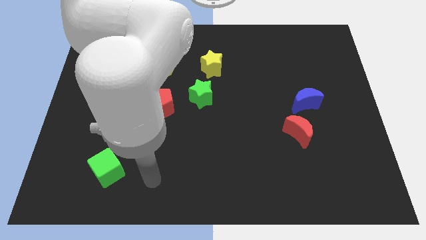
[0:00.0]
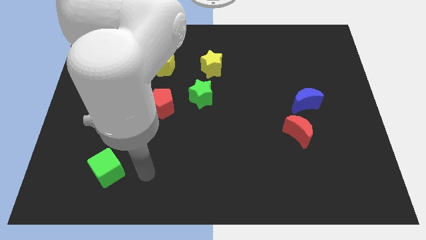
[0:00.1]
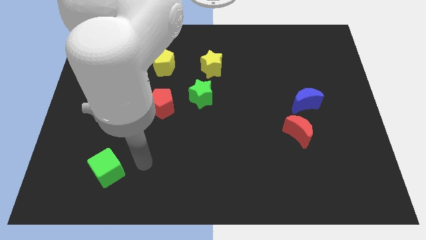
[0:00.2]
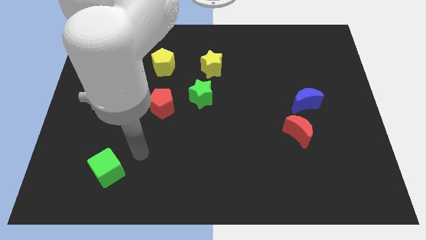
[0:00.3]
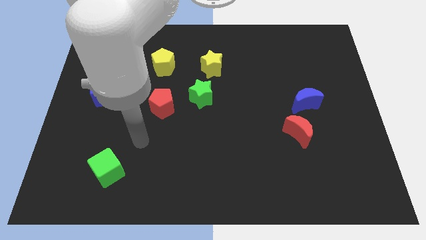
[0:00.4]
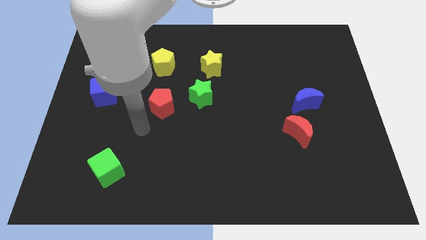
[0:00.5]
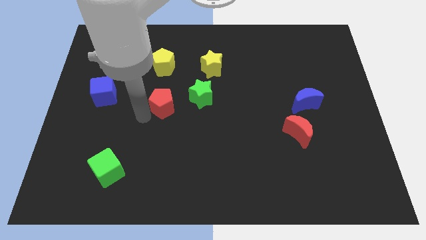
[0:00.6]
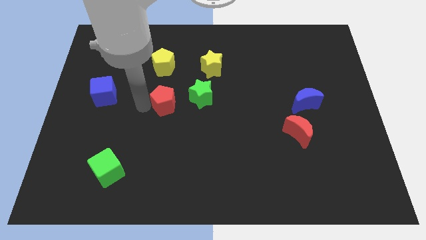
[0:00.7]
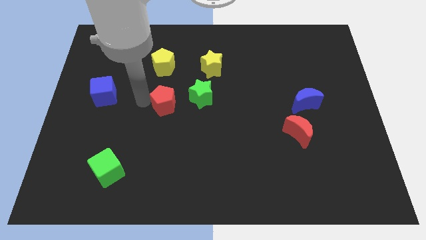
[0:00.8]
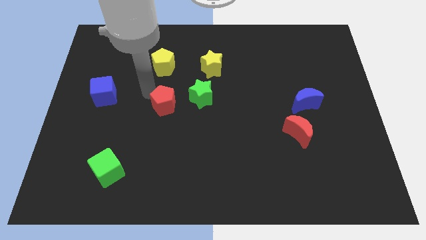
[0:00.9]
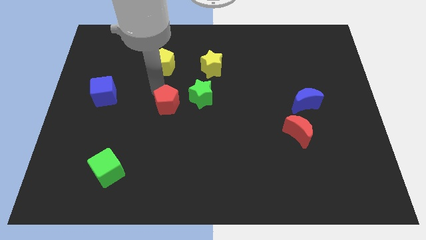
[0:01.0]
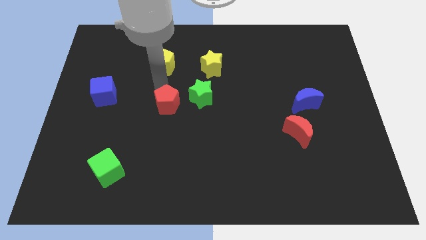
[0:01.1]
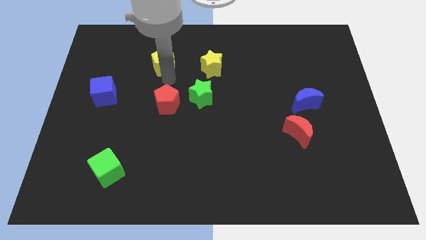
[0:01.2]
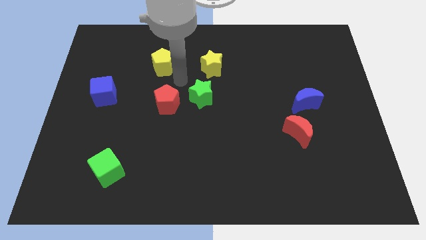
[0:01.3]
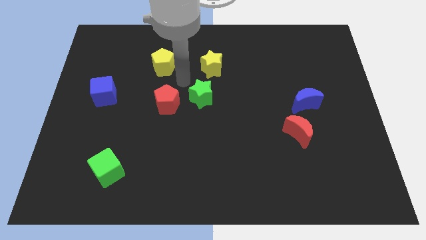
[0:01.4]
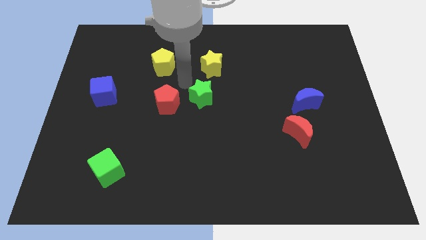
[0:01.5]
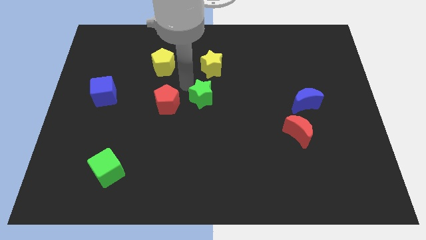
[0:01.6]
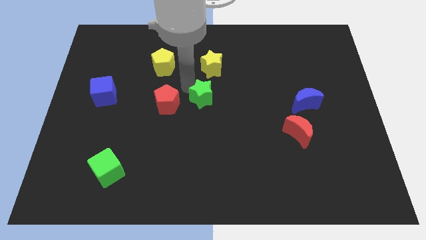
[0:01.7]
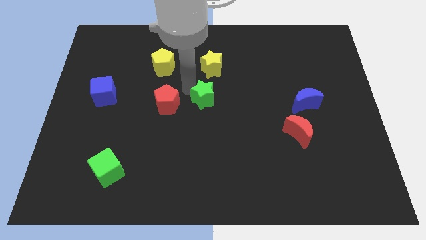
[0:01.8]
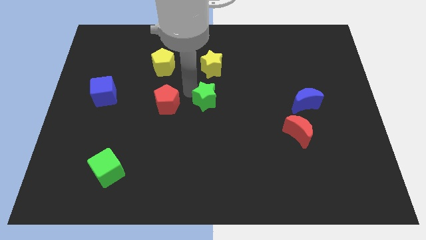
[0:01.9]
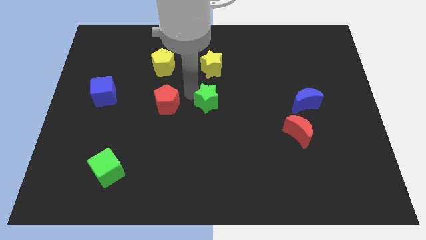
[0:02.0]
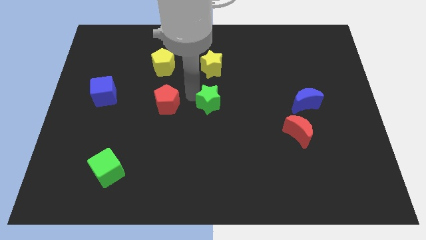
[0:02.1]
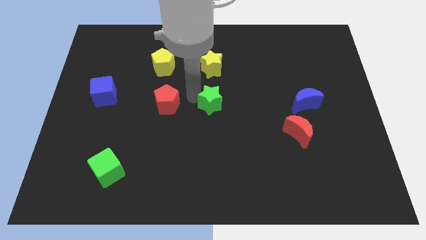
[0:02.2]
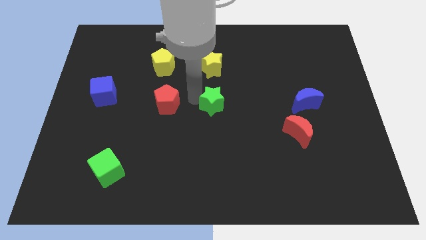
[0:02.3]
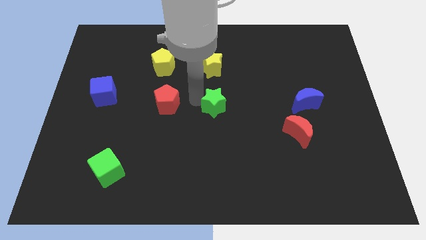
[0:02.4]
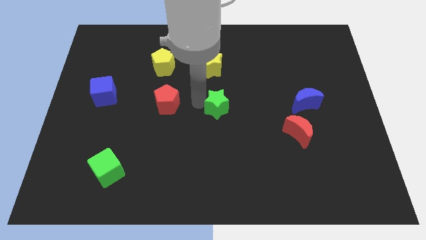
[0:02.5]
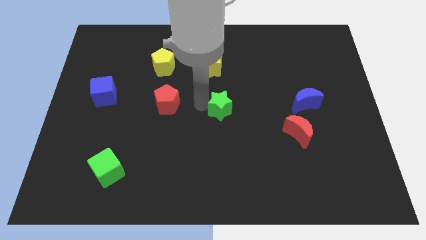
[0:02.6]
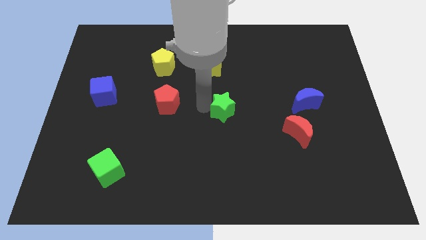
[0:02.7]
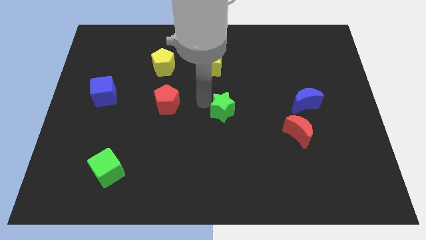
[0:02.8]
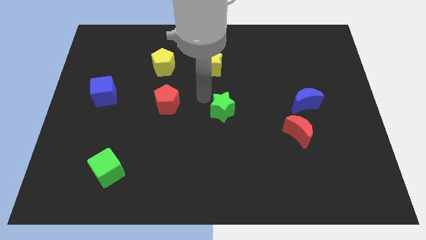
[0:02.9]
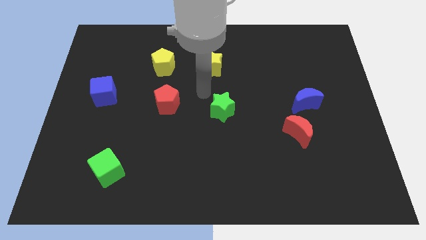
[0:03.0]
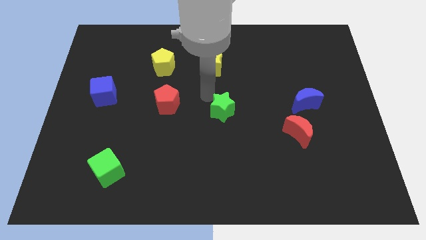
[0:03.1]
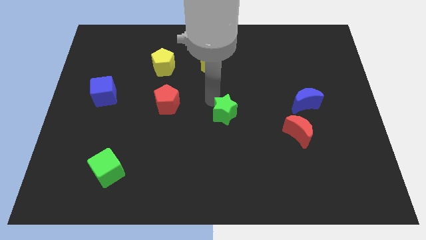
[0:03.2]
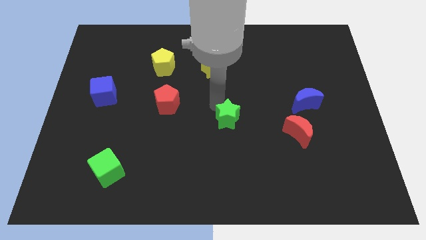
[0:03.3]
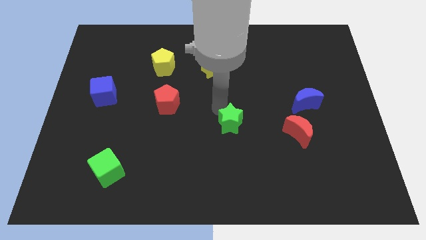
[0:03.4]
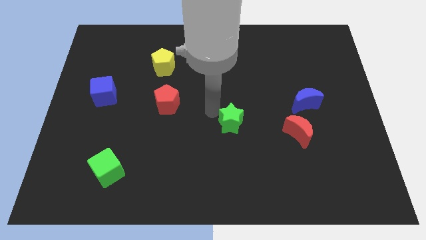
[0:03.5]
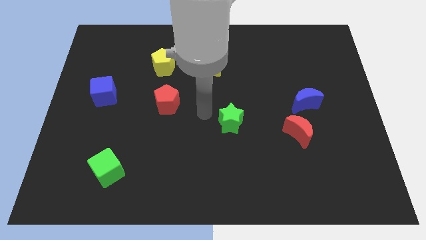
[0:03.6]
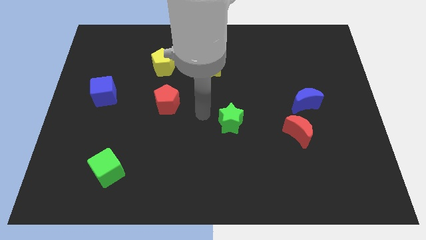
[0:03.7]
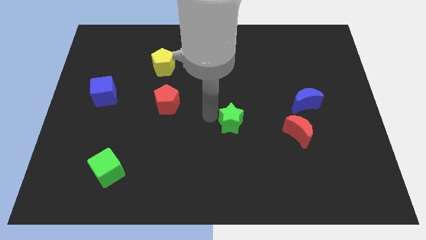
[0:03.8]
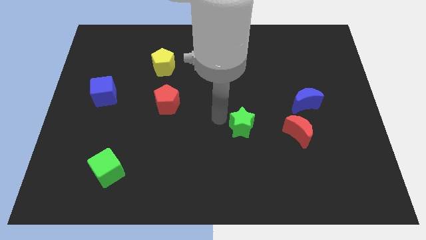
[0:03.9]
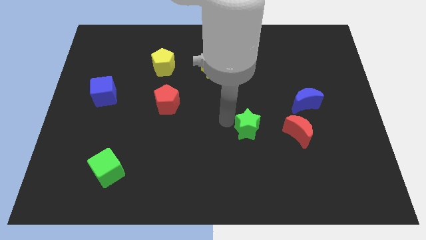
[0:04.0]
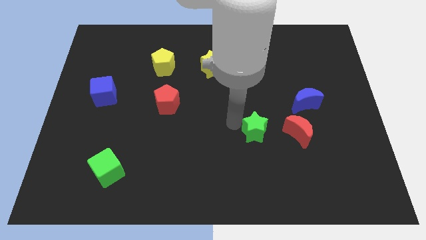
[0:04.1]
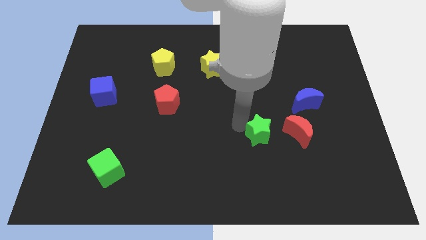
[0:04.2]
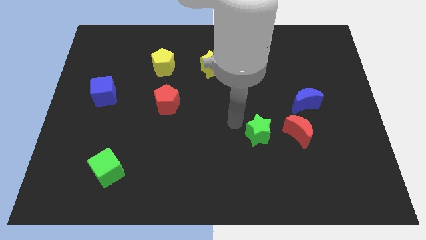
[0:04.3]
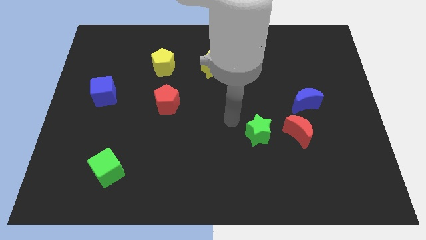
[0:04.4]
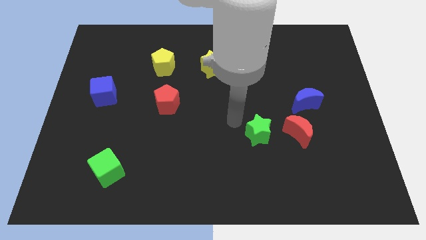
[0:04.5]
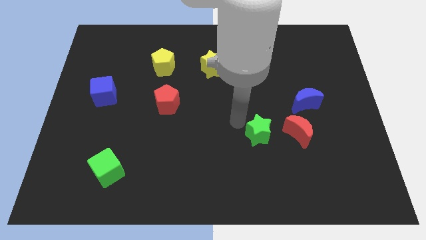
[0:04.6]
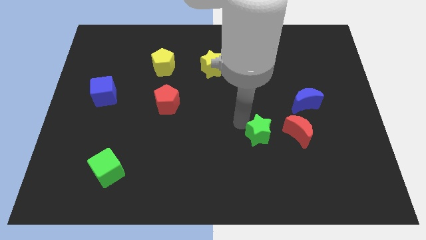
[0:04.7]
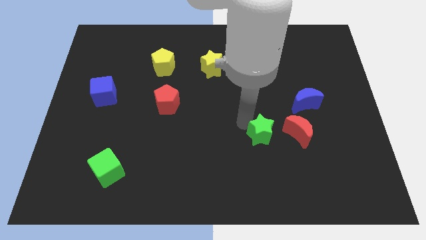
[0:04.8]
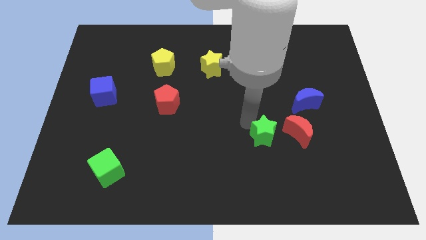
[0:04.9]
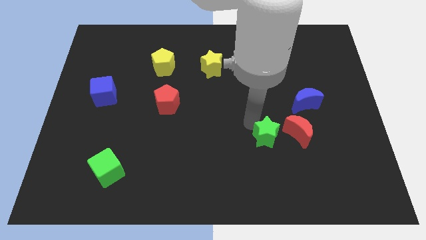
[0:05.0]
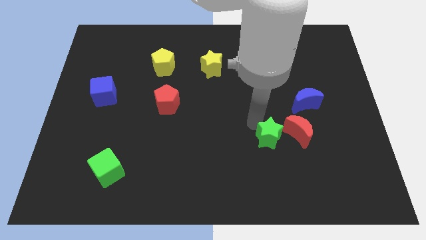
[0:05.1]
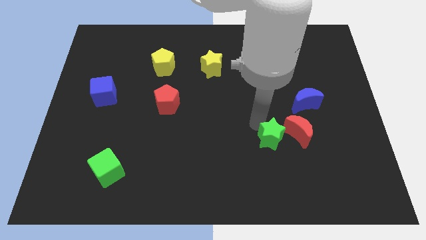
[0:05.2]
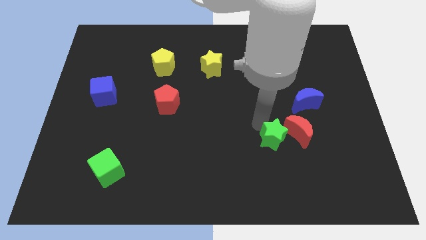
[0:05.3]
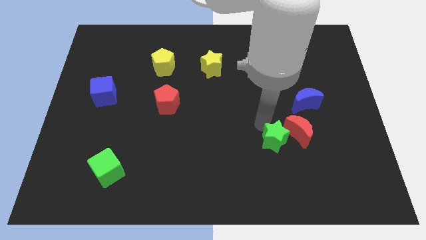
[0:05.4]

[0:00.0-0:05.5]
push the green star down and to the right diagonally

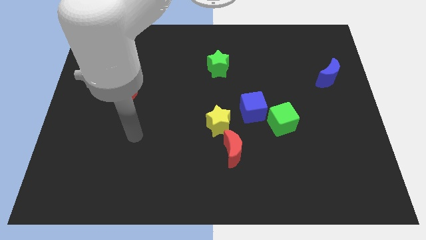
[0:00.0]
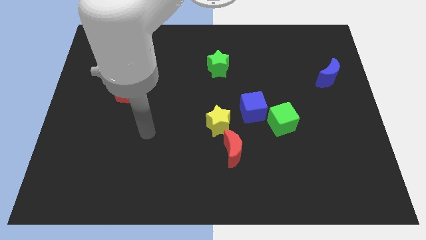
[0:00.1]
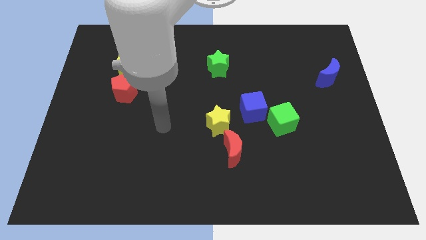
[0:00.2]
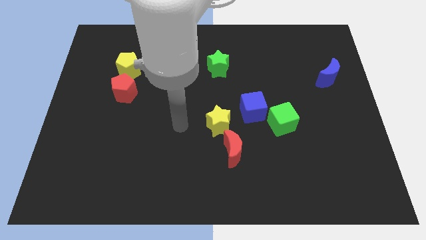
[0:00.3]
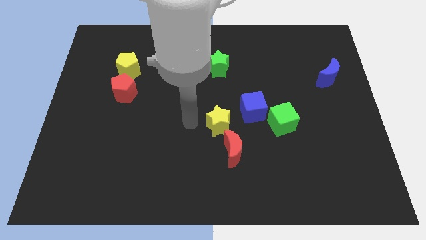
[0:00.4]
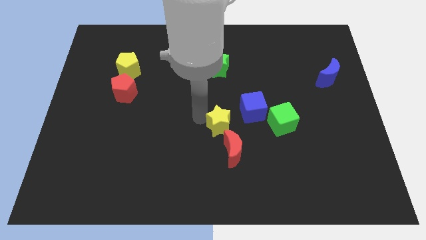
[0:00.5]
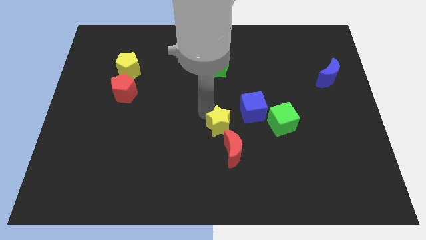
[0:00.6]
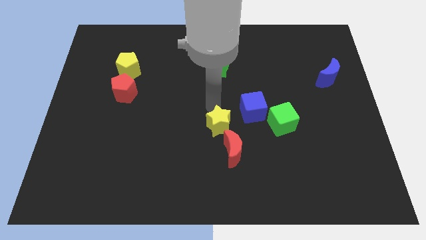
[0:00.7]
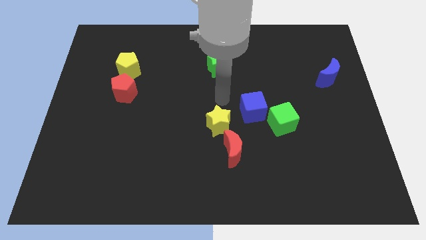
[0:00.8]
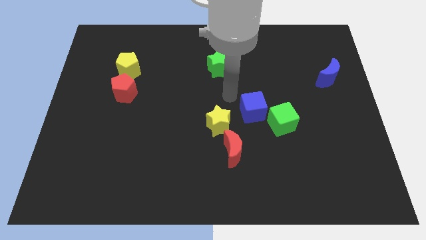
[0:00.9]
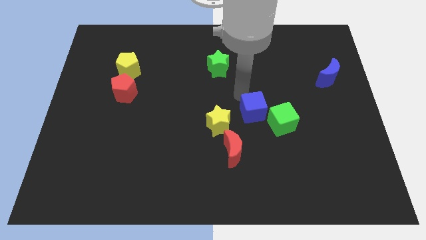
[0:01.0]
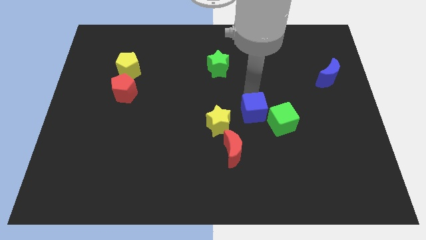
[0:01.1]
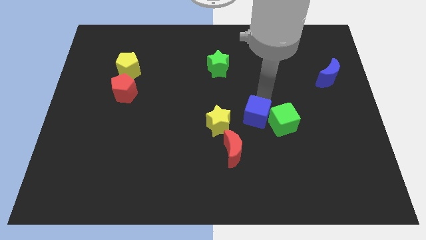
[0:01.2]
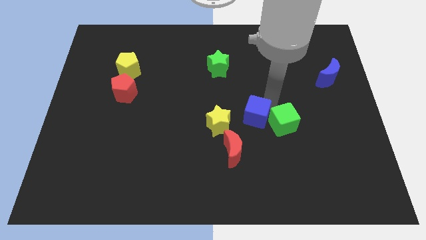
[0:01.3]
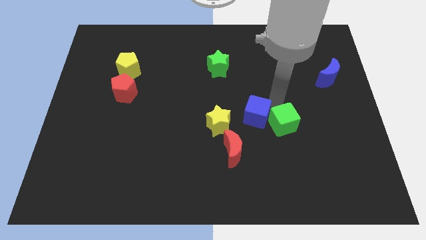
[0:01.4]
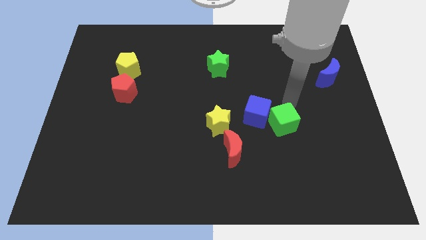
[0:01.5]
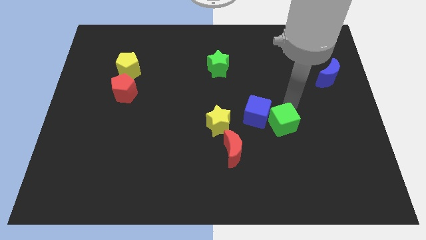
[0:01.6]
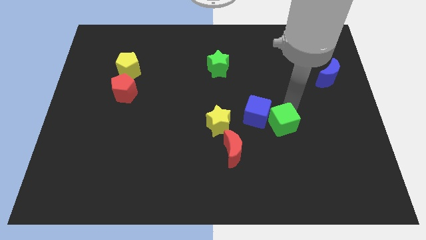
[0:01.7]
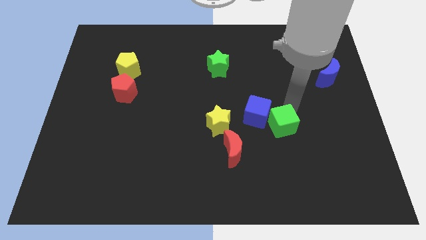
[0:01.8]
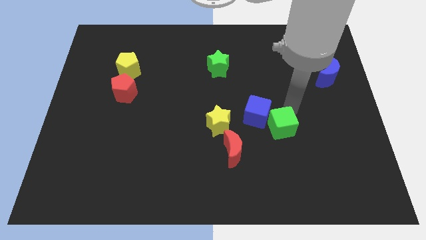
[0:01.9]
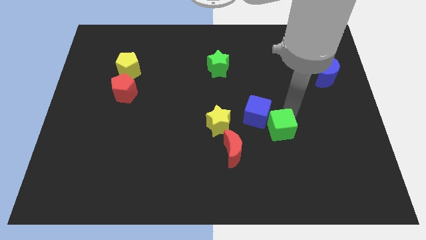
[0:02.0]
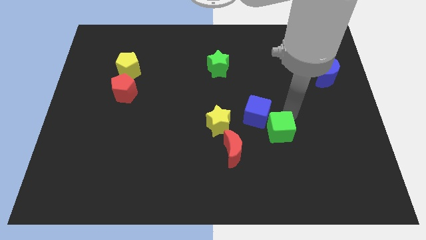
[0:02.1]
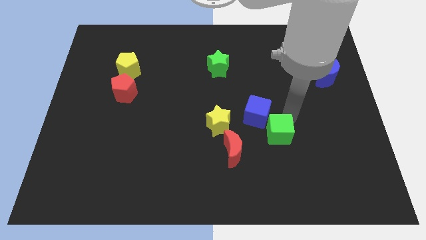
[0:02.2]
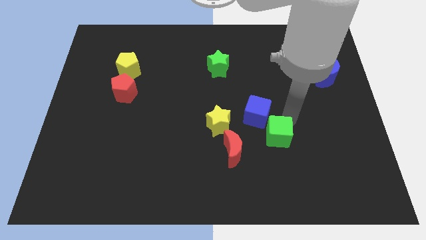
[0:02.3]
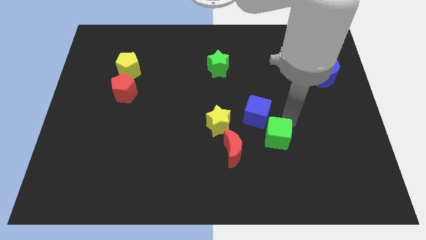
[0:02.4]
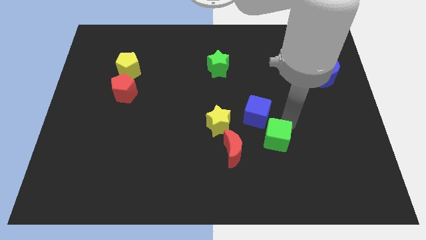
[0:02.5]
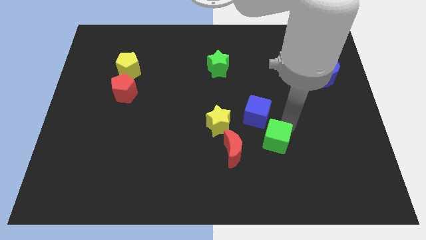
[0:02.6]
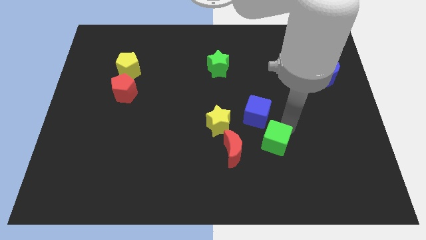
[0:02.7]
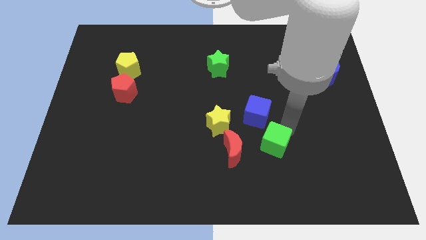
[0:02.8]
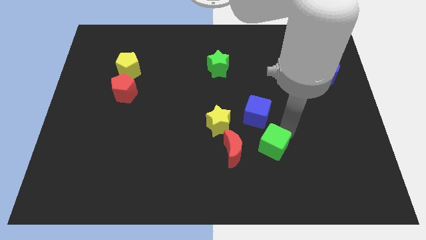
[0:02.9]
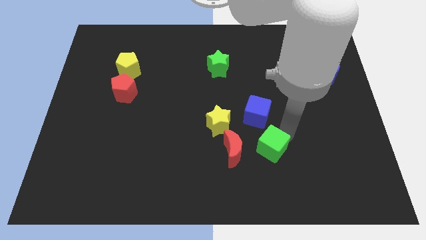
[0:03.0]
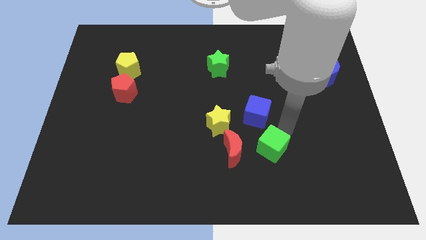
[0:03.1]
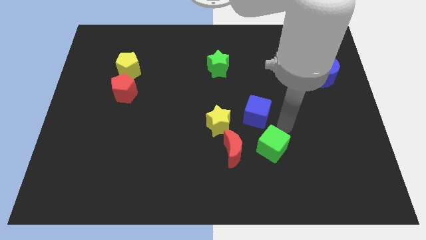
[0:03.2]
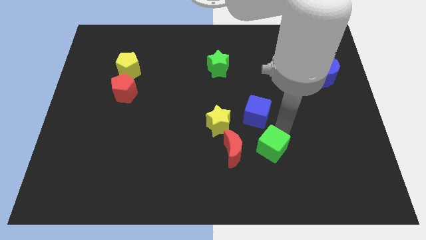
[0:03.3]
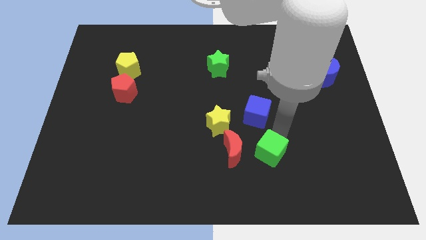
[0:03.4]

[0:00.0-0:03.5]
move the green cube down and to the left diagonally somewhat
